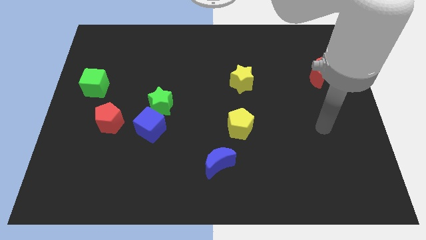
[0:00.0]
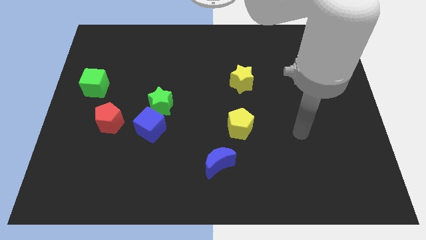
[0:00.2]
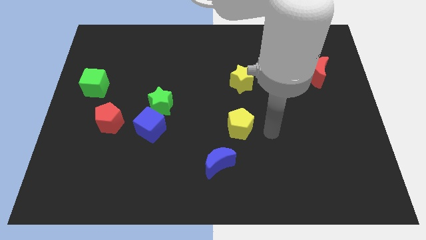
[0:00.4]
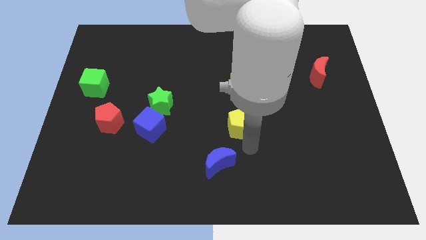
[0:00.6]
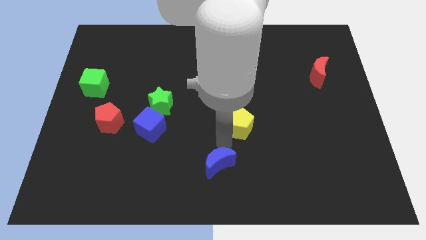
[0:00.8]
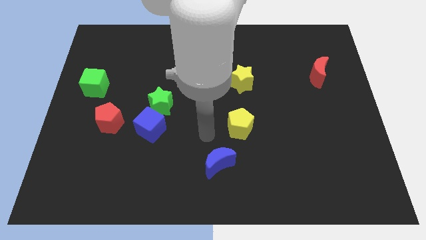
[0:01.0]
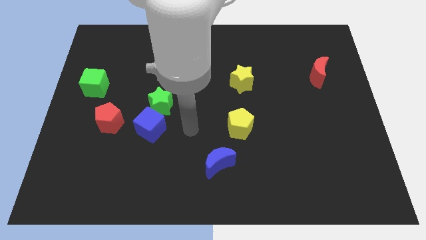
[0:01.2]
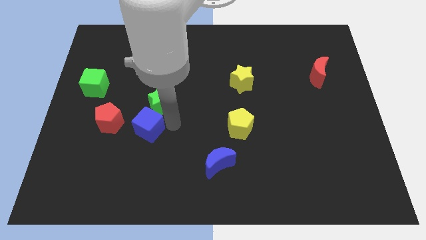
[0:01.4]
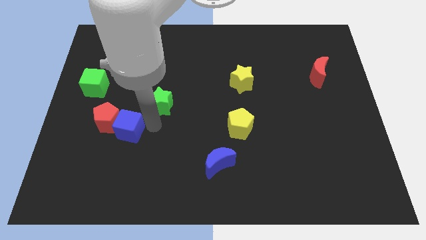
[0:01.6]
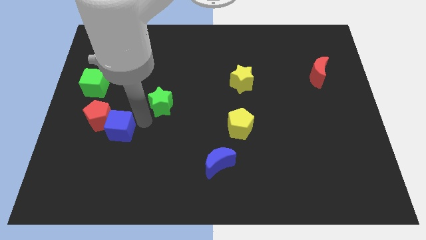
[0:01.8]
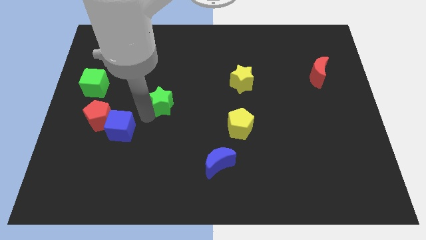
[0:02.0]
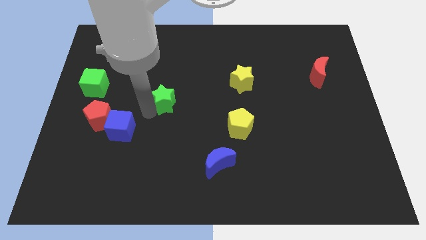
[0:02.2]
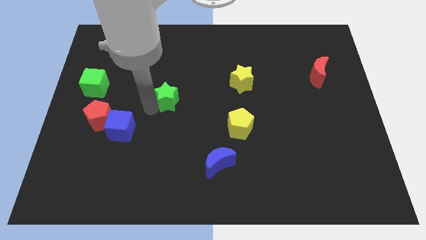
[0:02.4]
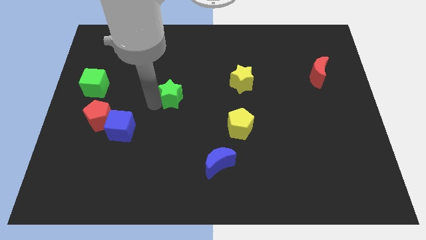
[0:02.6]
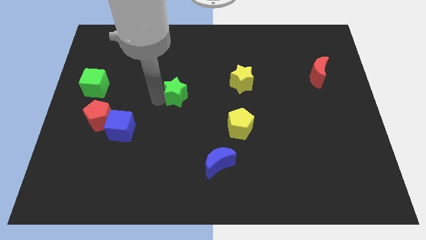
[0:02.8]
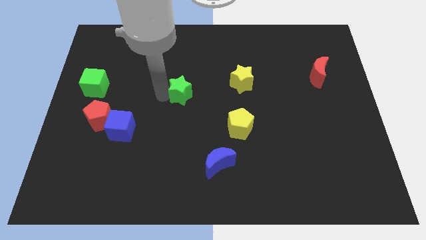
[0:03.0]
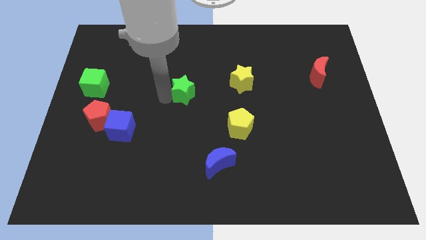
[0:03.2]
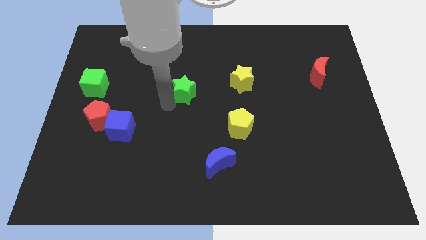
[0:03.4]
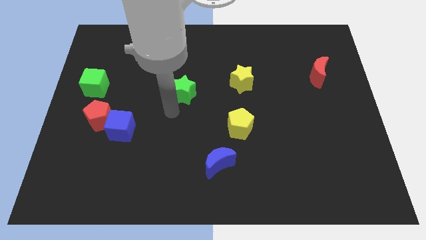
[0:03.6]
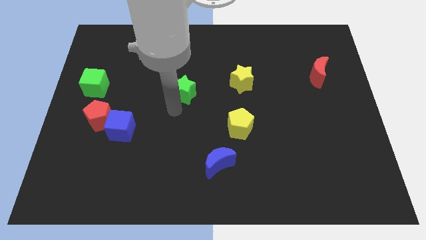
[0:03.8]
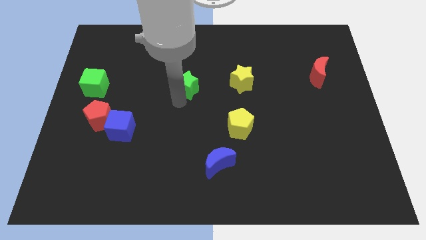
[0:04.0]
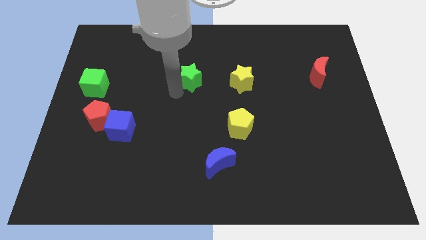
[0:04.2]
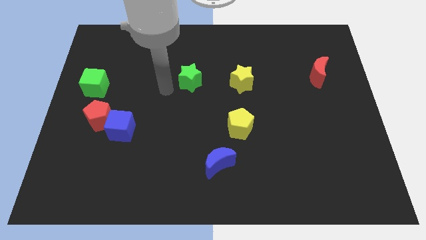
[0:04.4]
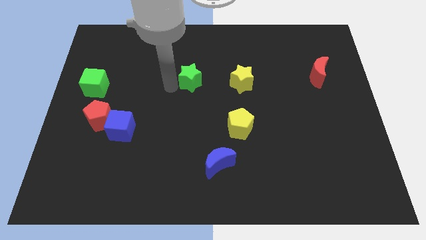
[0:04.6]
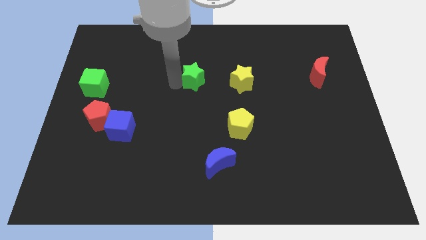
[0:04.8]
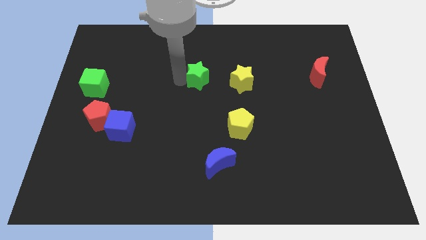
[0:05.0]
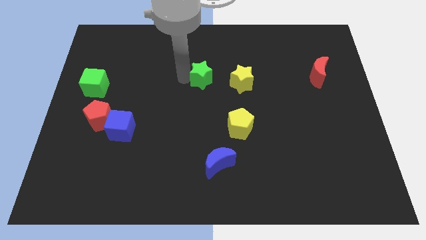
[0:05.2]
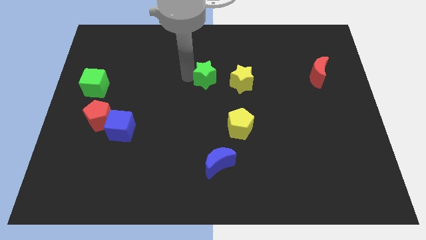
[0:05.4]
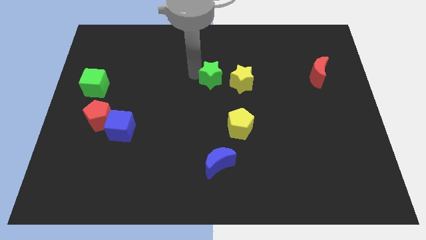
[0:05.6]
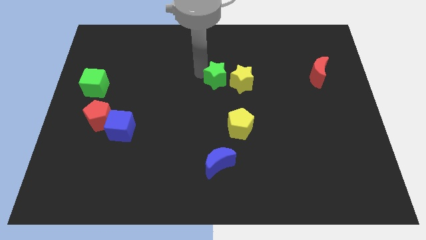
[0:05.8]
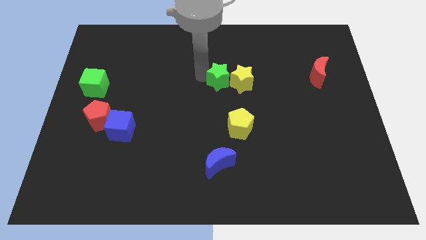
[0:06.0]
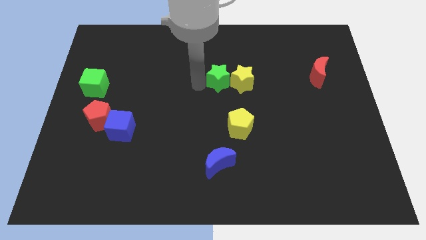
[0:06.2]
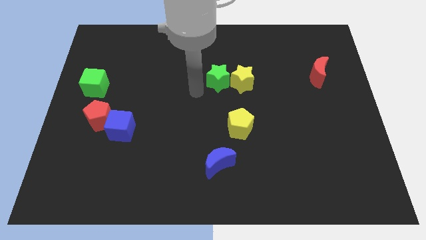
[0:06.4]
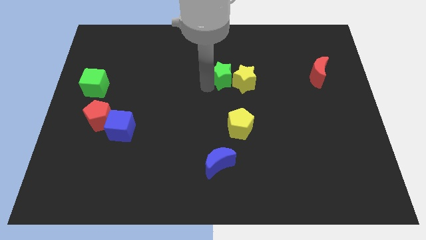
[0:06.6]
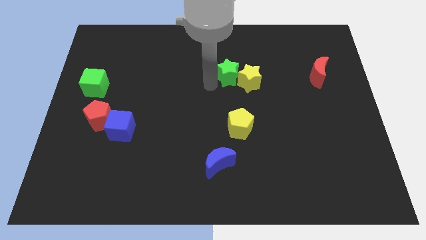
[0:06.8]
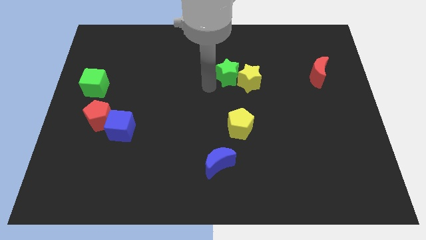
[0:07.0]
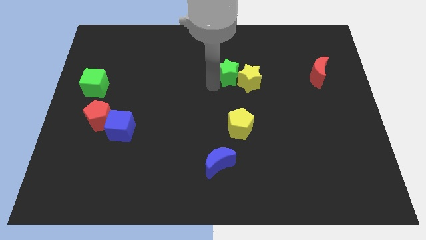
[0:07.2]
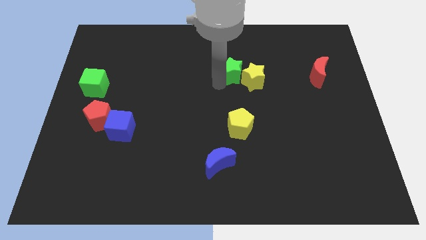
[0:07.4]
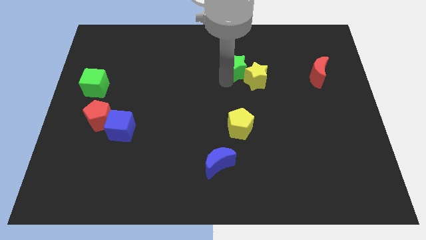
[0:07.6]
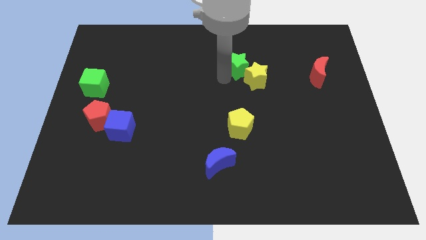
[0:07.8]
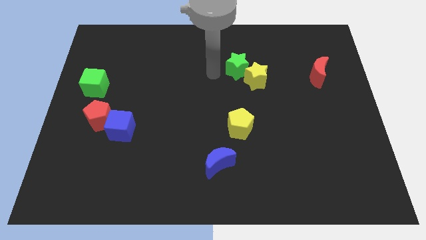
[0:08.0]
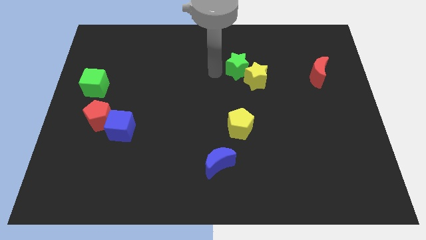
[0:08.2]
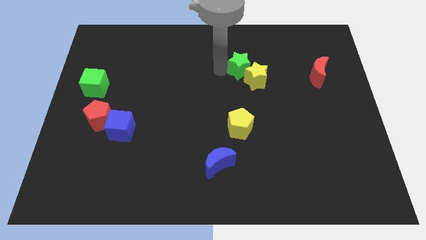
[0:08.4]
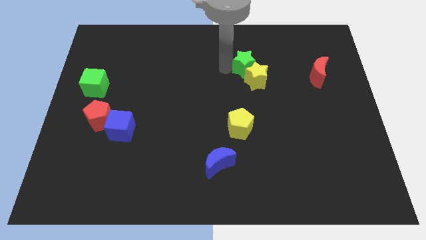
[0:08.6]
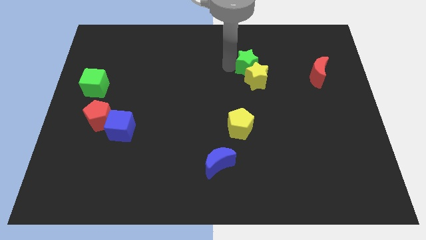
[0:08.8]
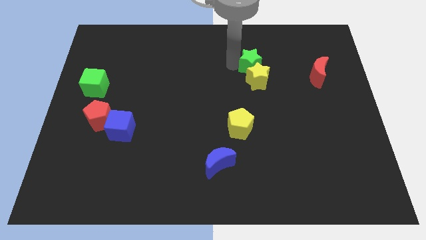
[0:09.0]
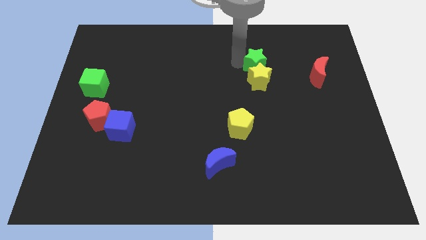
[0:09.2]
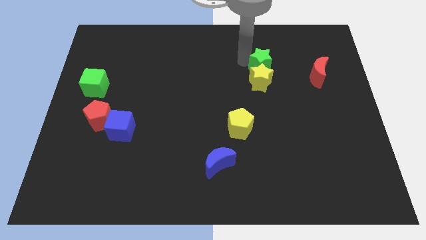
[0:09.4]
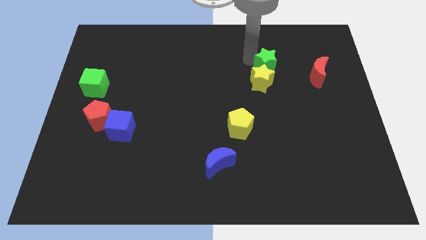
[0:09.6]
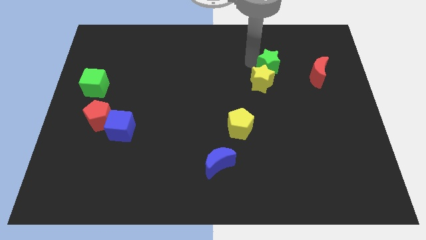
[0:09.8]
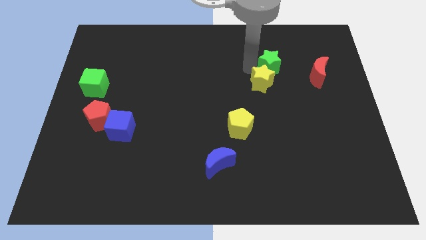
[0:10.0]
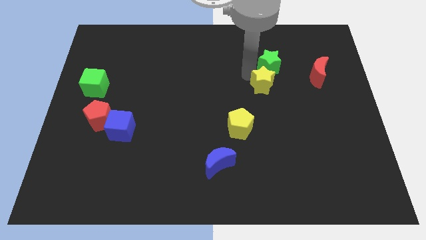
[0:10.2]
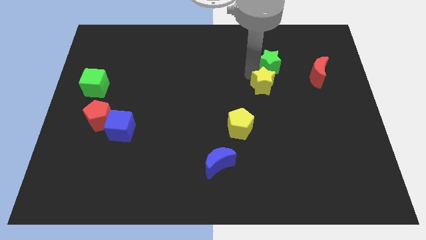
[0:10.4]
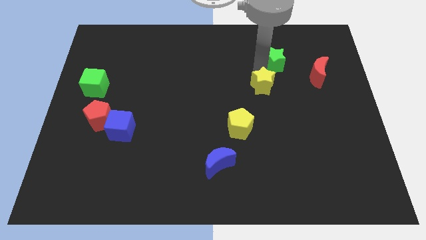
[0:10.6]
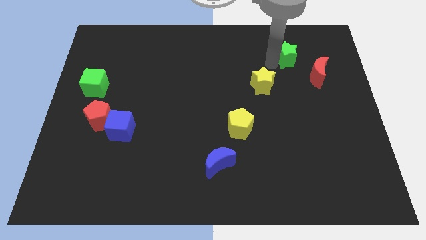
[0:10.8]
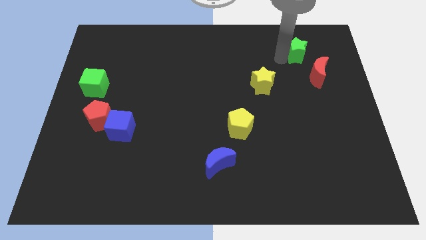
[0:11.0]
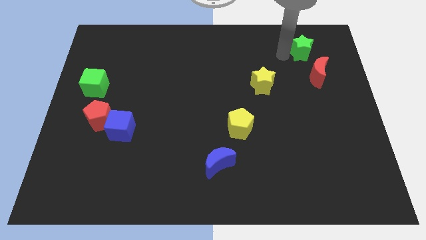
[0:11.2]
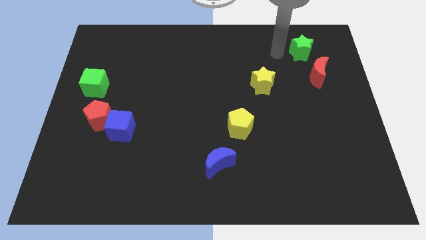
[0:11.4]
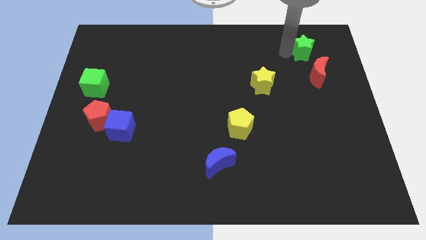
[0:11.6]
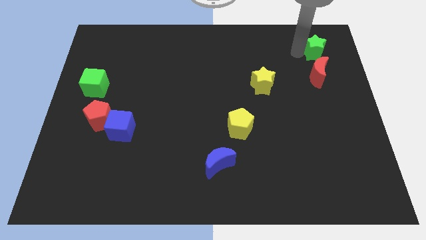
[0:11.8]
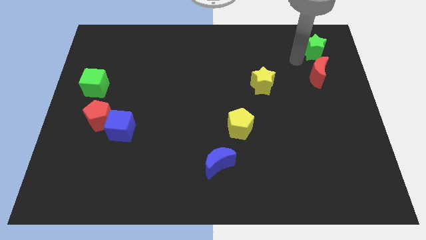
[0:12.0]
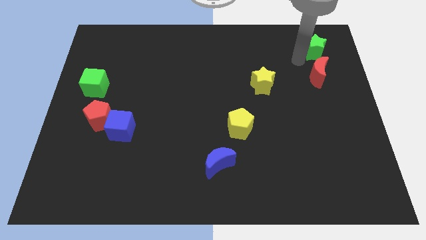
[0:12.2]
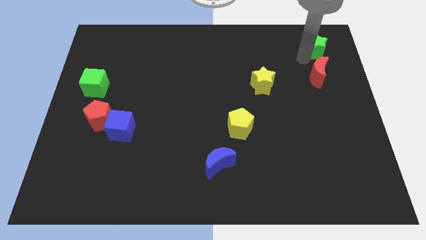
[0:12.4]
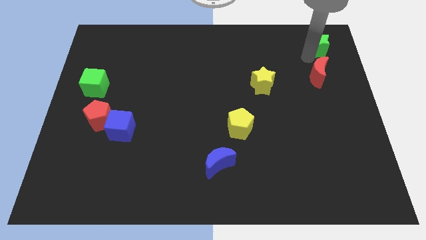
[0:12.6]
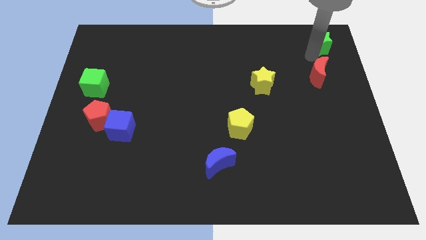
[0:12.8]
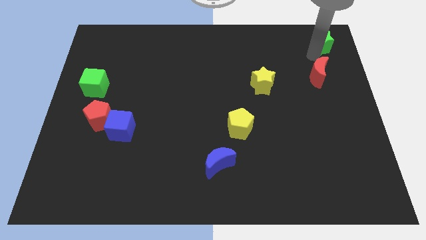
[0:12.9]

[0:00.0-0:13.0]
slide the green star to the top right

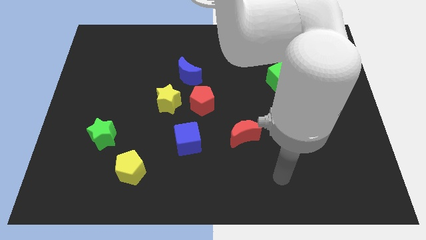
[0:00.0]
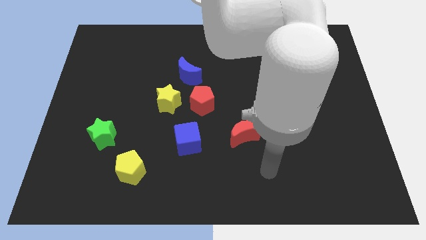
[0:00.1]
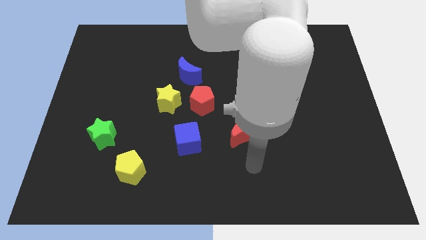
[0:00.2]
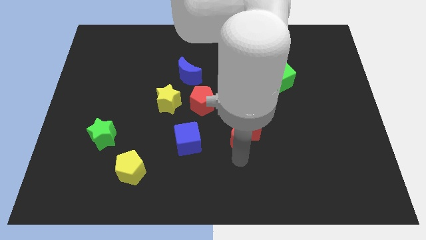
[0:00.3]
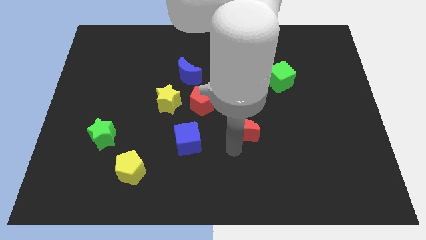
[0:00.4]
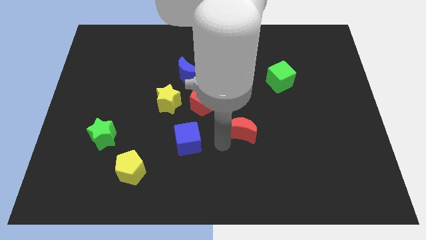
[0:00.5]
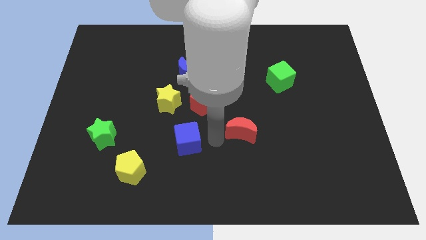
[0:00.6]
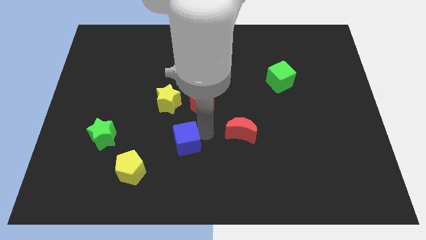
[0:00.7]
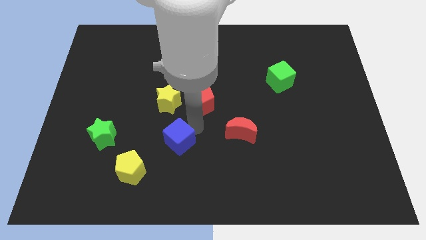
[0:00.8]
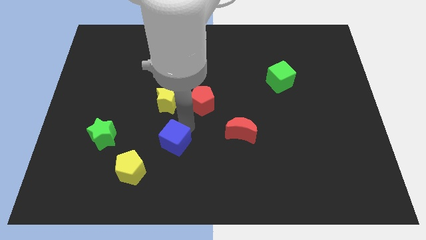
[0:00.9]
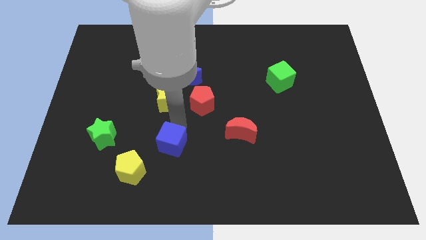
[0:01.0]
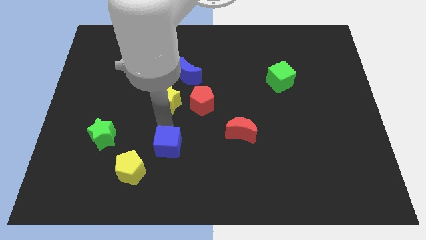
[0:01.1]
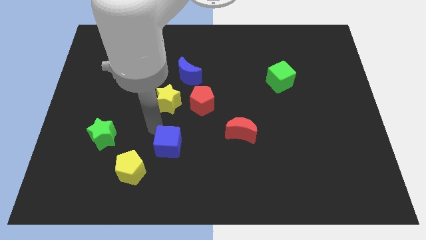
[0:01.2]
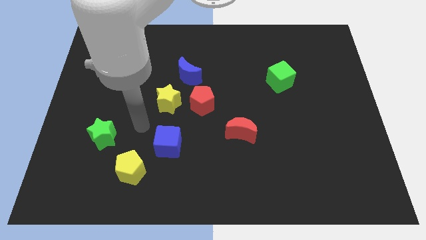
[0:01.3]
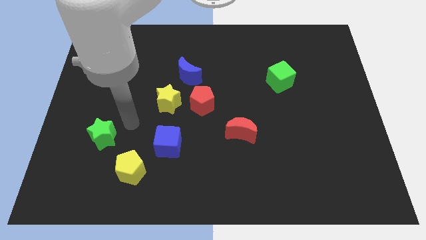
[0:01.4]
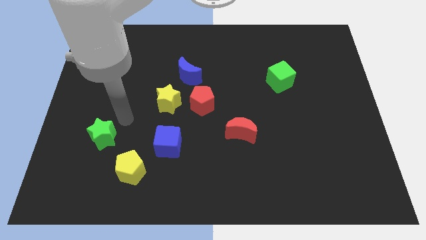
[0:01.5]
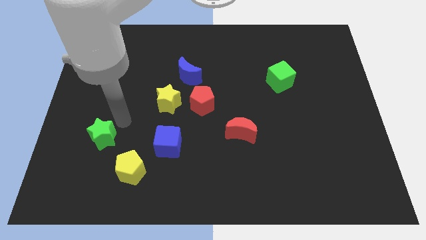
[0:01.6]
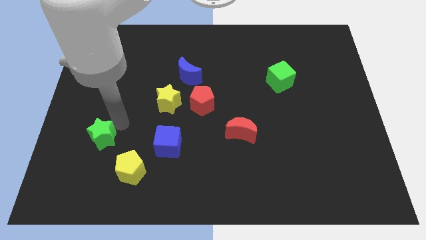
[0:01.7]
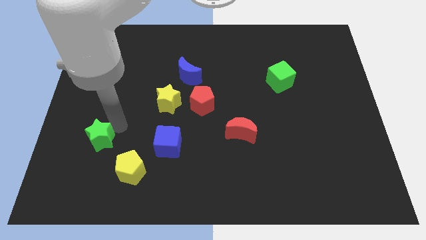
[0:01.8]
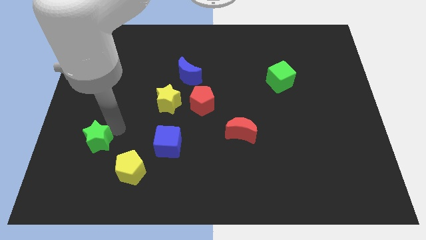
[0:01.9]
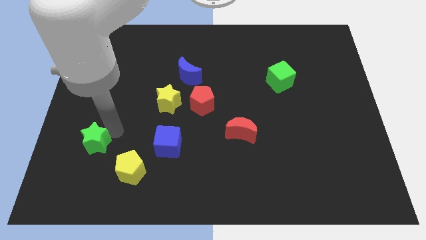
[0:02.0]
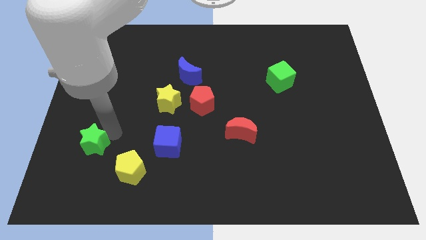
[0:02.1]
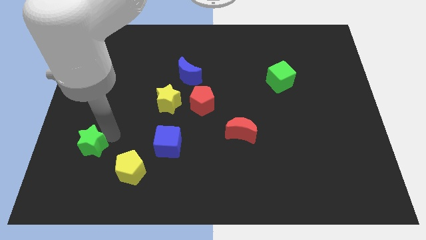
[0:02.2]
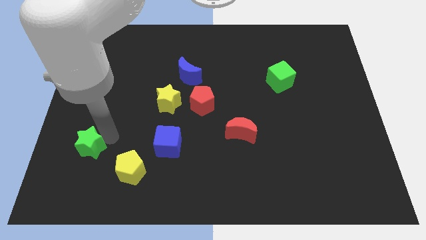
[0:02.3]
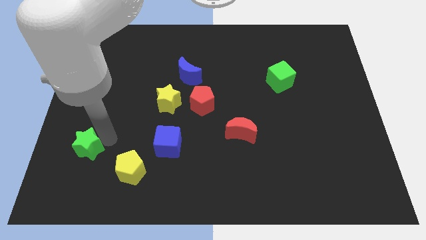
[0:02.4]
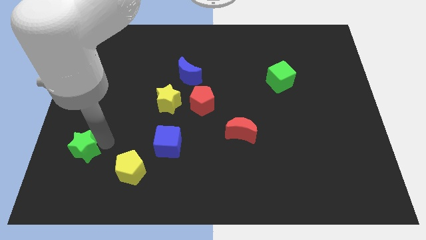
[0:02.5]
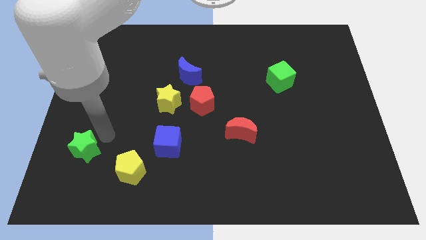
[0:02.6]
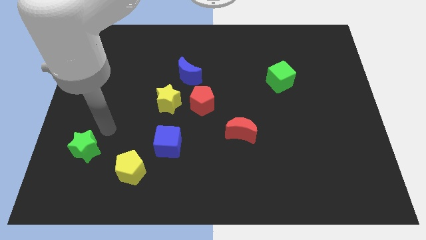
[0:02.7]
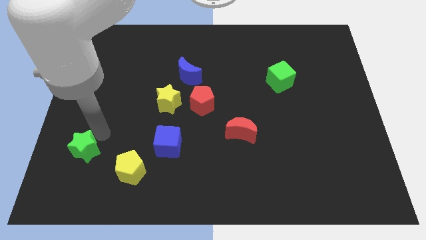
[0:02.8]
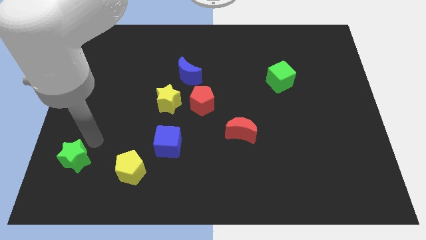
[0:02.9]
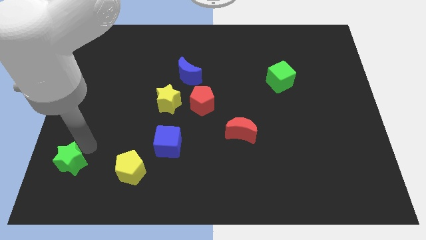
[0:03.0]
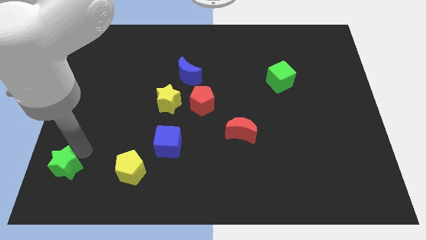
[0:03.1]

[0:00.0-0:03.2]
push the green star to the bottom left
